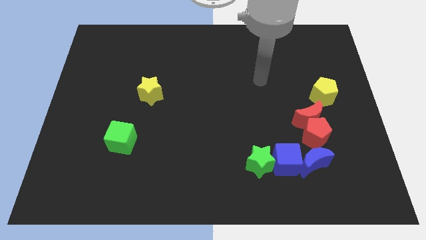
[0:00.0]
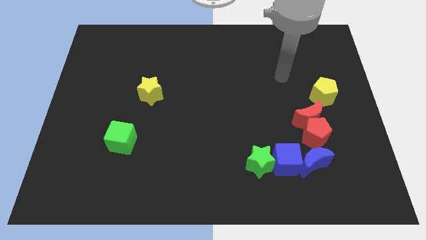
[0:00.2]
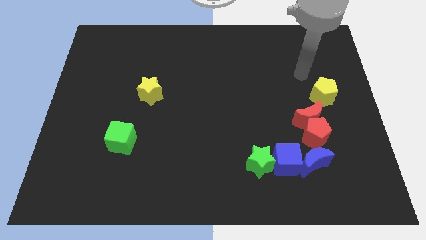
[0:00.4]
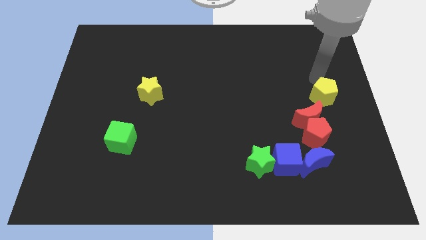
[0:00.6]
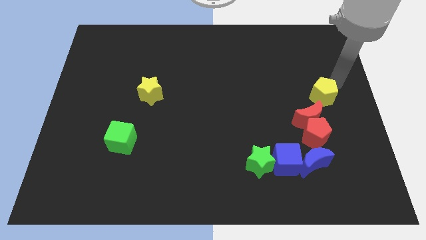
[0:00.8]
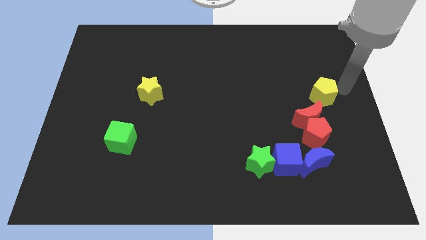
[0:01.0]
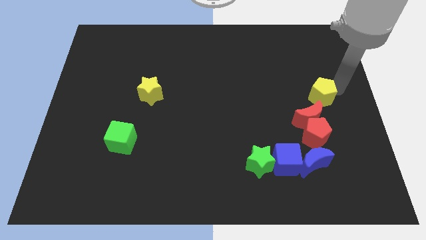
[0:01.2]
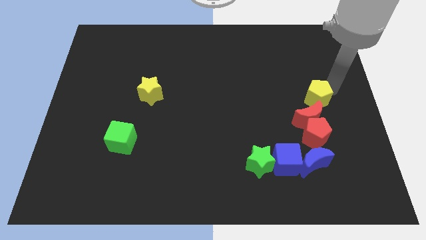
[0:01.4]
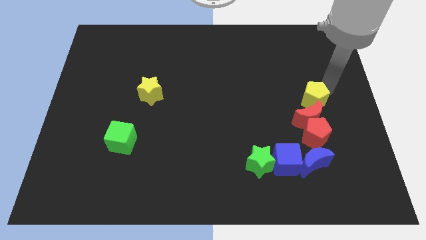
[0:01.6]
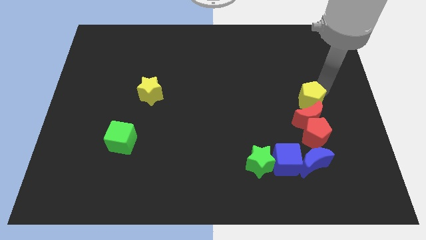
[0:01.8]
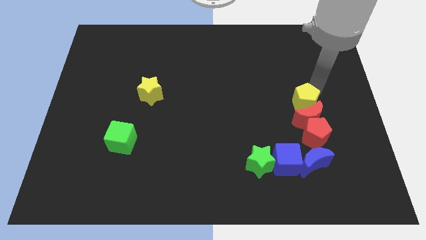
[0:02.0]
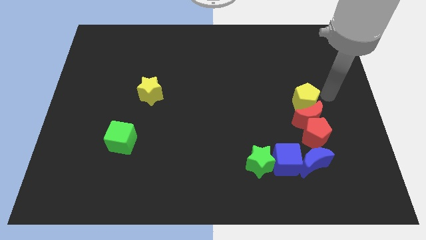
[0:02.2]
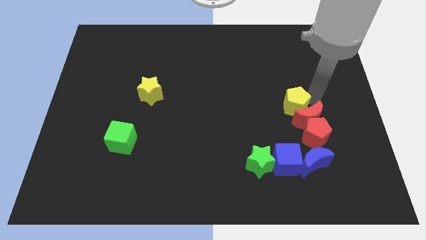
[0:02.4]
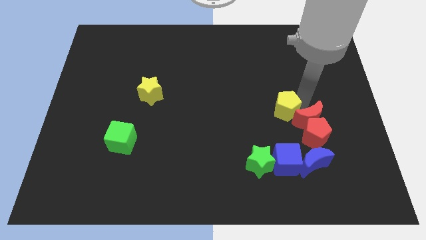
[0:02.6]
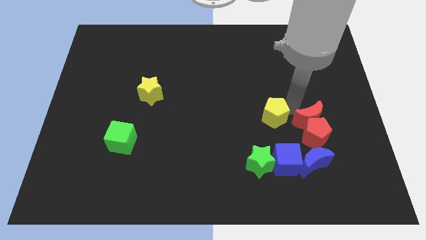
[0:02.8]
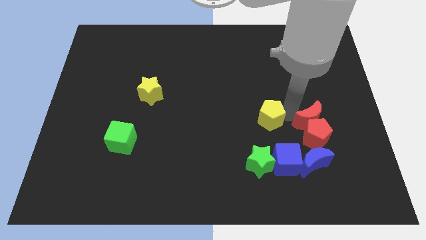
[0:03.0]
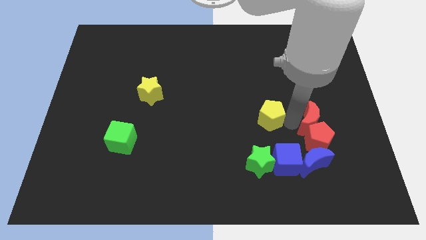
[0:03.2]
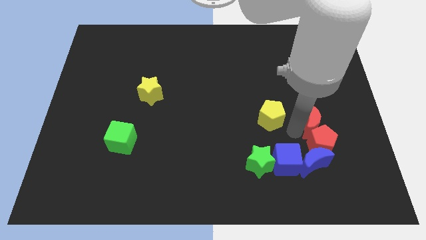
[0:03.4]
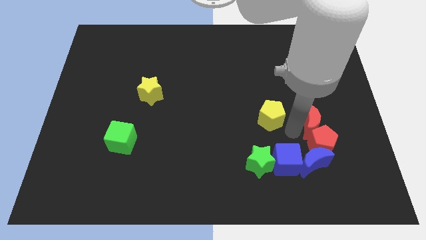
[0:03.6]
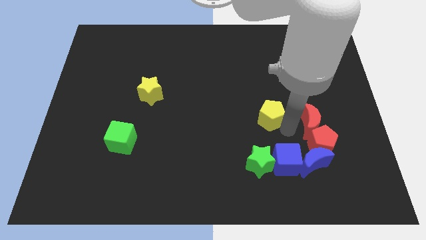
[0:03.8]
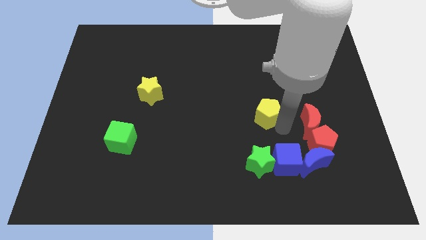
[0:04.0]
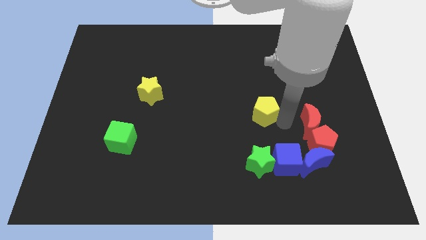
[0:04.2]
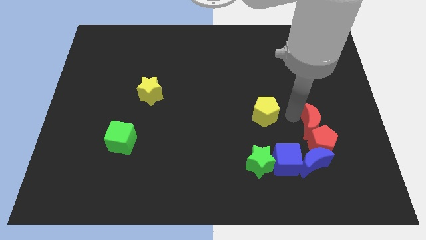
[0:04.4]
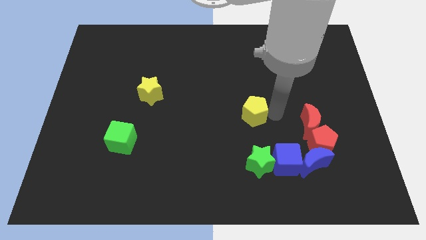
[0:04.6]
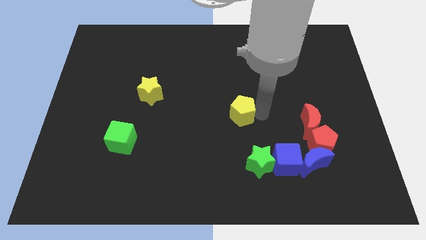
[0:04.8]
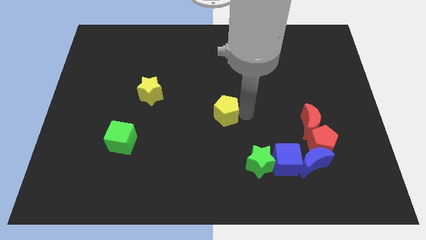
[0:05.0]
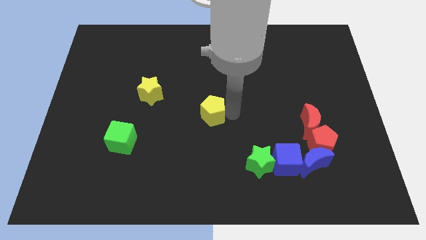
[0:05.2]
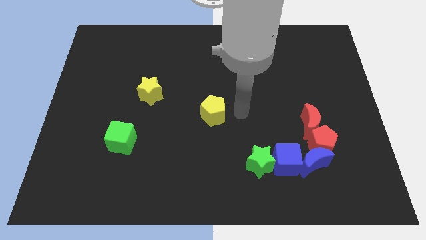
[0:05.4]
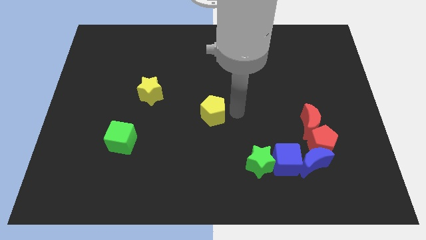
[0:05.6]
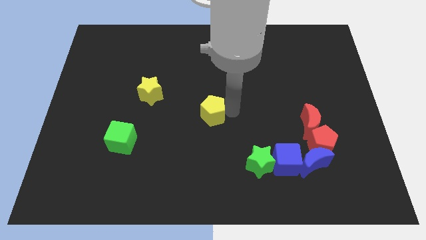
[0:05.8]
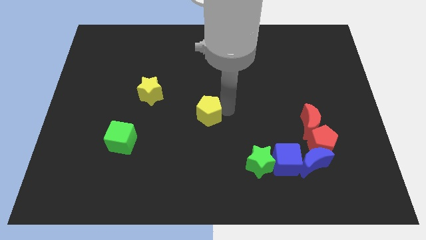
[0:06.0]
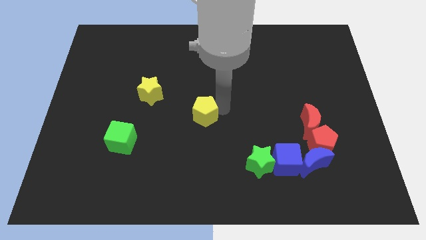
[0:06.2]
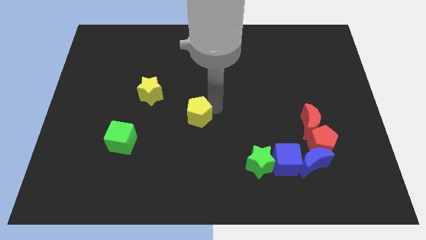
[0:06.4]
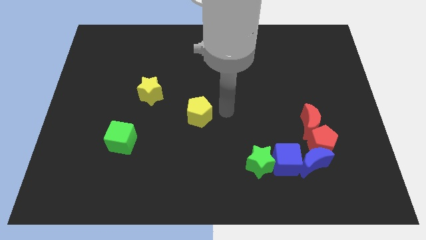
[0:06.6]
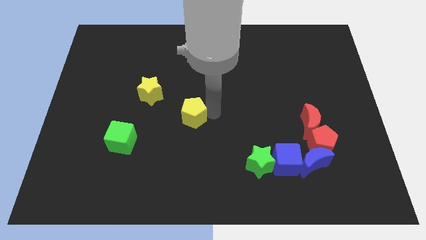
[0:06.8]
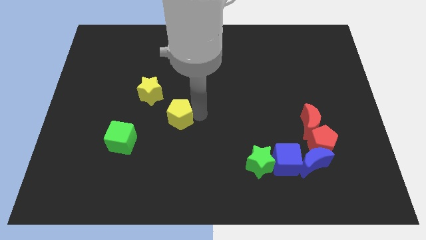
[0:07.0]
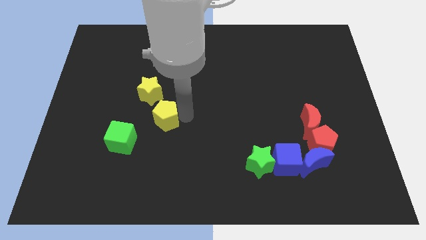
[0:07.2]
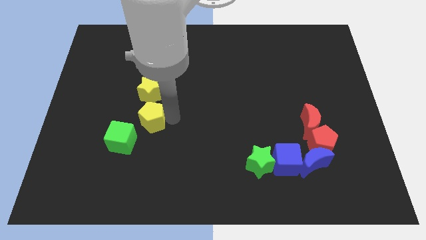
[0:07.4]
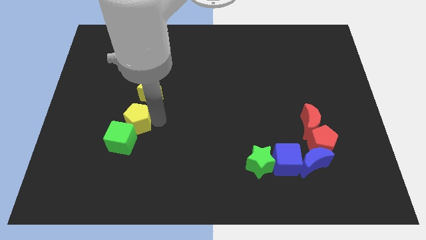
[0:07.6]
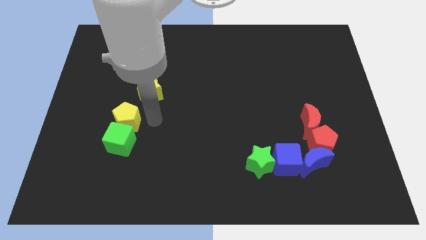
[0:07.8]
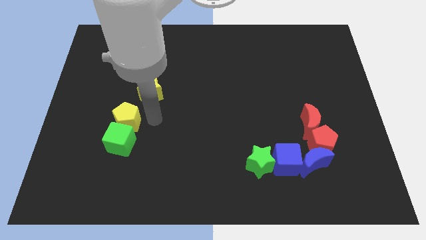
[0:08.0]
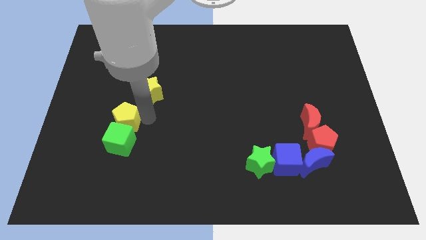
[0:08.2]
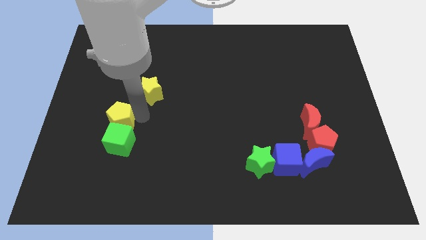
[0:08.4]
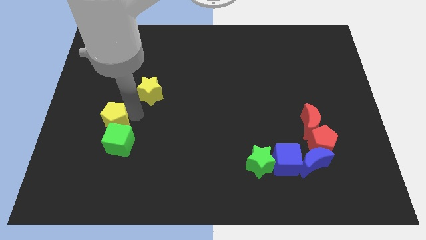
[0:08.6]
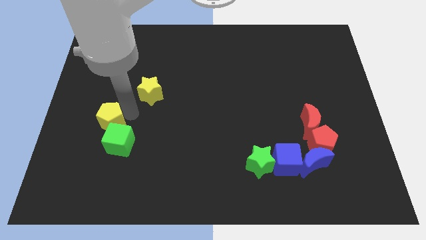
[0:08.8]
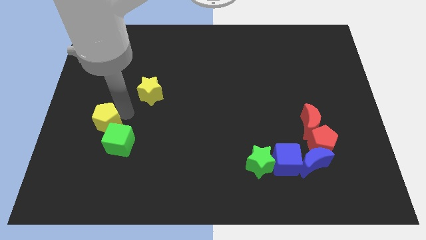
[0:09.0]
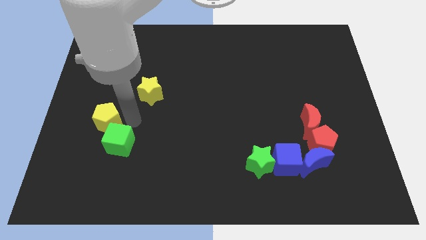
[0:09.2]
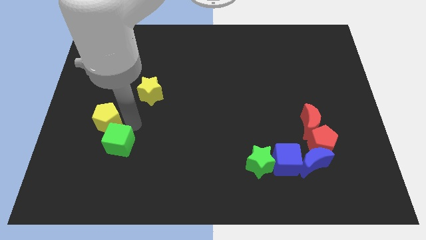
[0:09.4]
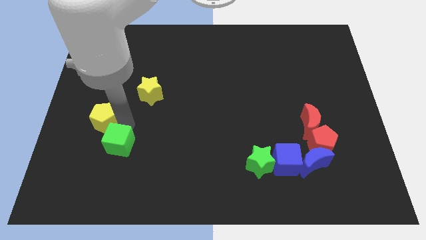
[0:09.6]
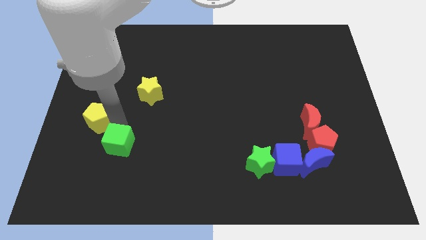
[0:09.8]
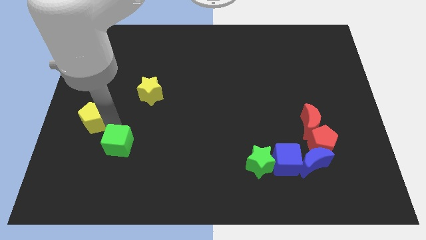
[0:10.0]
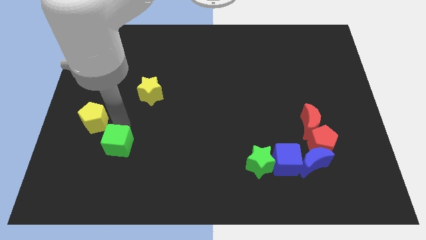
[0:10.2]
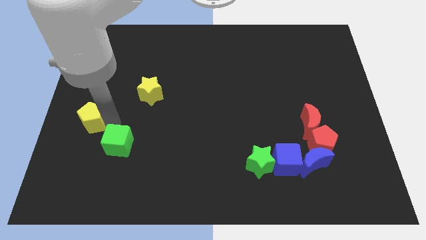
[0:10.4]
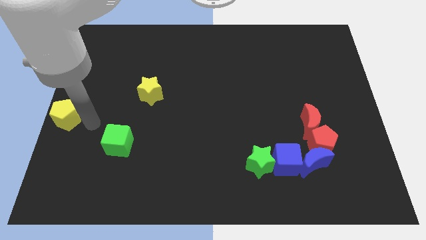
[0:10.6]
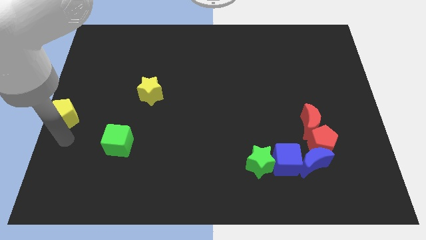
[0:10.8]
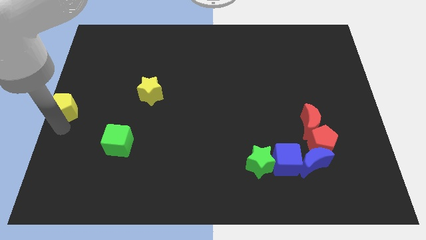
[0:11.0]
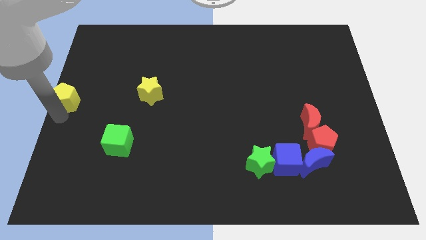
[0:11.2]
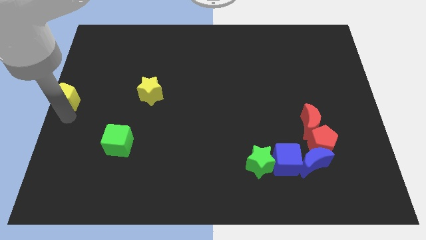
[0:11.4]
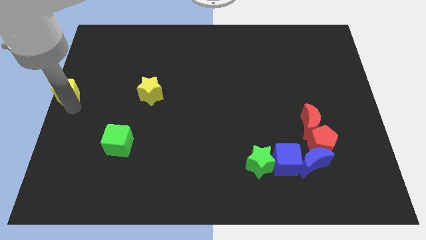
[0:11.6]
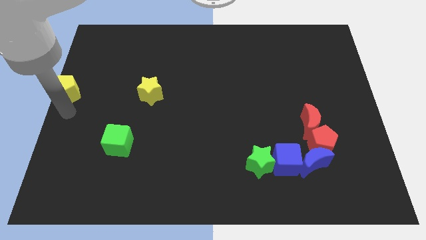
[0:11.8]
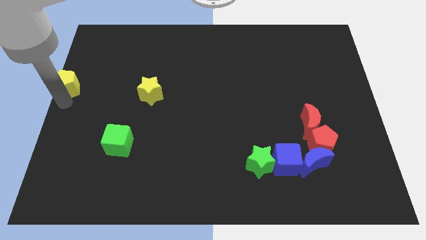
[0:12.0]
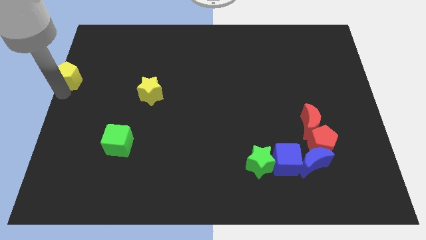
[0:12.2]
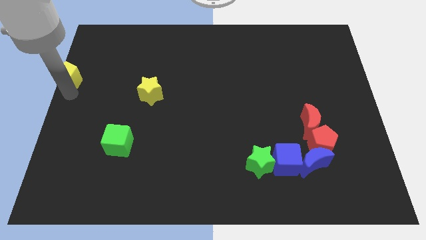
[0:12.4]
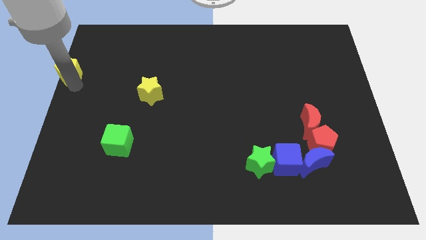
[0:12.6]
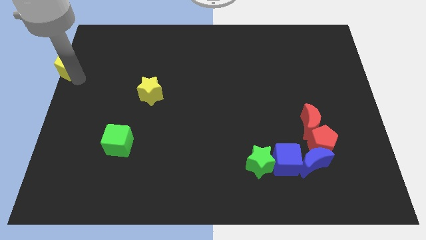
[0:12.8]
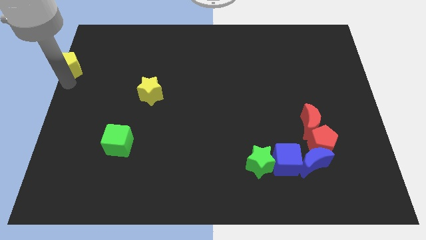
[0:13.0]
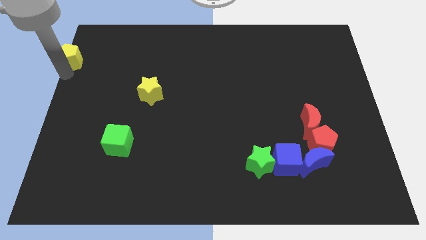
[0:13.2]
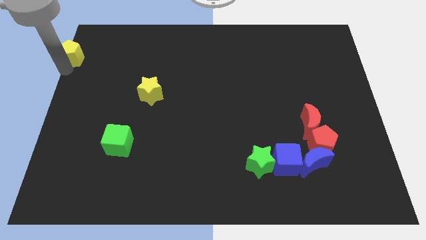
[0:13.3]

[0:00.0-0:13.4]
slide the yellow pentagon to the top left corner
